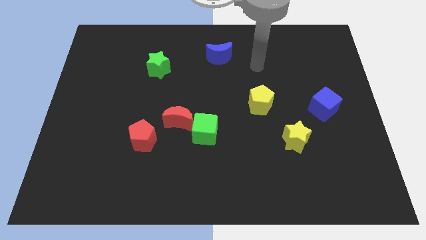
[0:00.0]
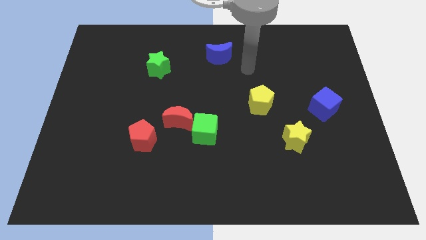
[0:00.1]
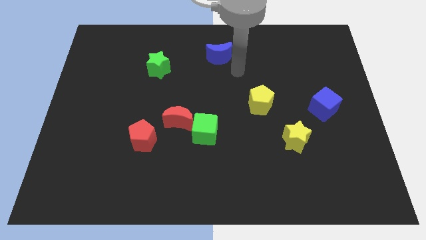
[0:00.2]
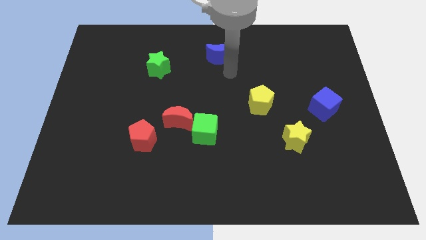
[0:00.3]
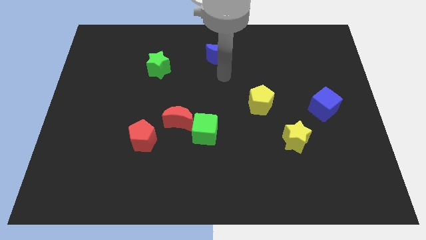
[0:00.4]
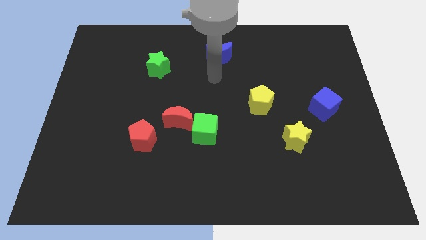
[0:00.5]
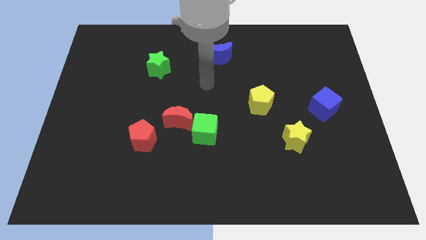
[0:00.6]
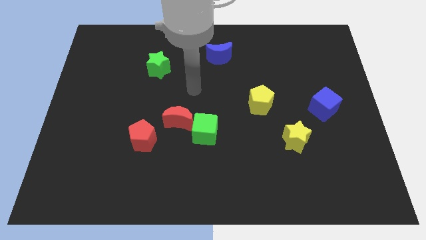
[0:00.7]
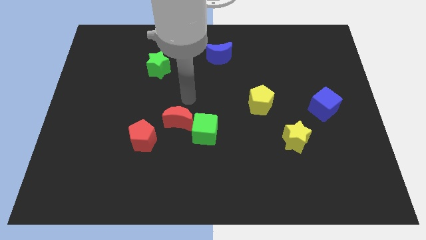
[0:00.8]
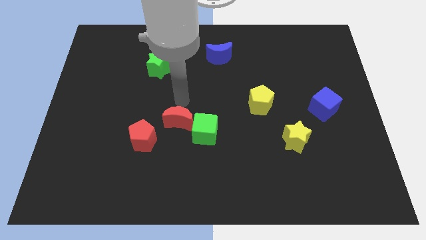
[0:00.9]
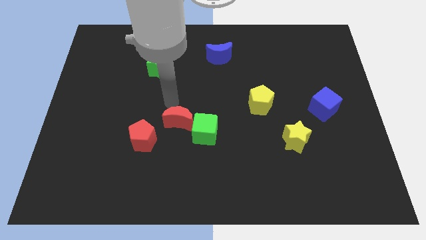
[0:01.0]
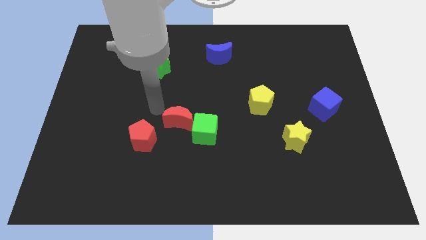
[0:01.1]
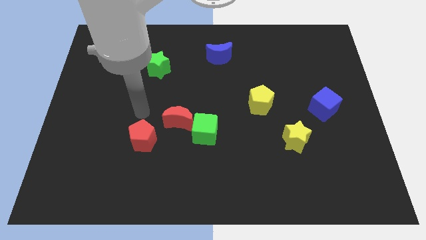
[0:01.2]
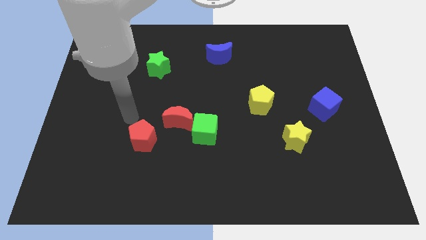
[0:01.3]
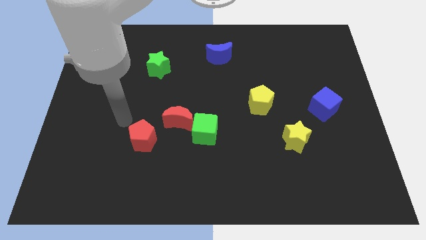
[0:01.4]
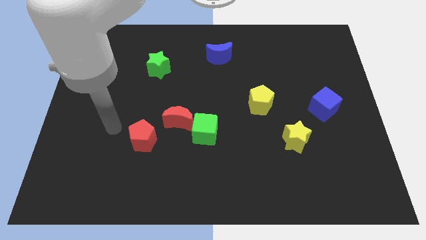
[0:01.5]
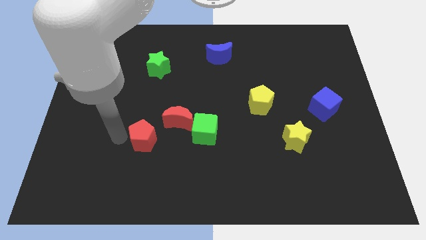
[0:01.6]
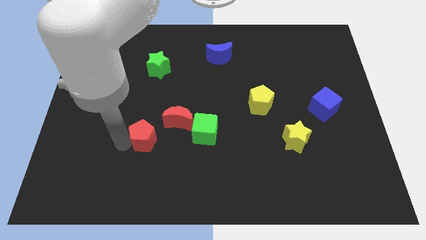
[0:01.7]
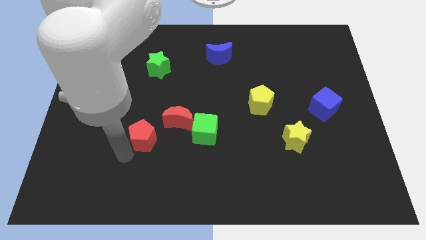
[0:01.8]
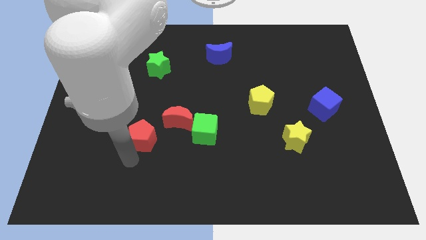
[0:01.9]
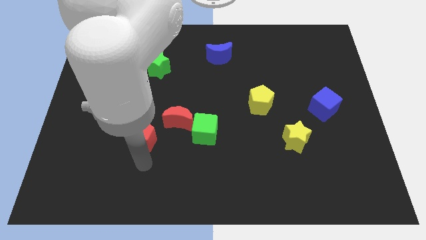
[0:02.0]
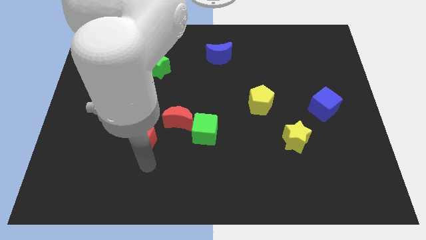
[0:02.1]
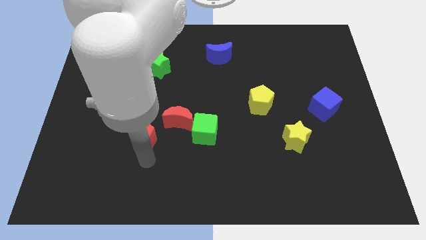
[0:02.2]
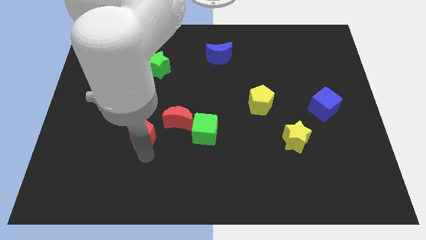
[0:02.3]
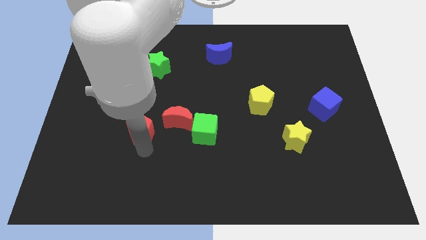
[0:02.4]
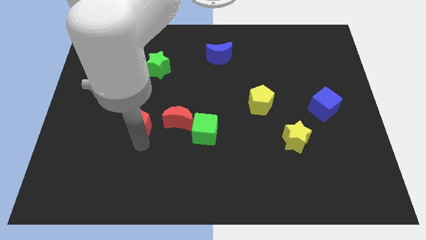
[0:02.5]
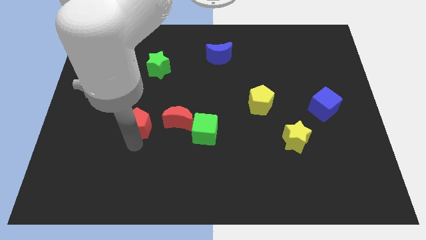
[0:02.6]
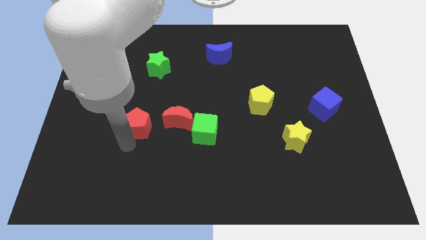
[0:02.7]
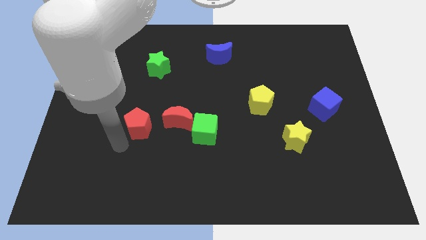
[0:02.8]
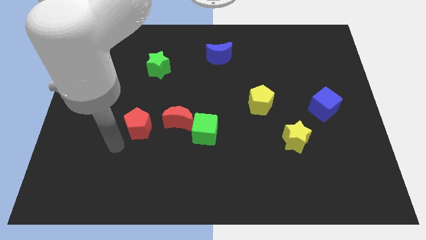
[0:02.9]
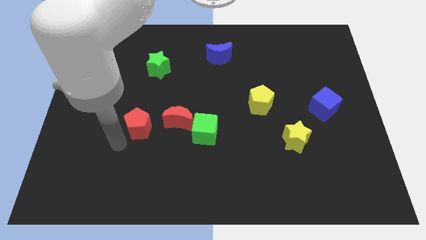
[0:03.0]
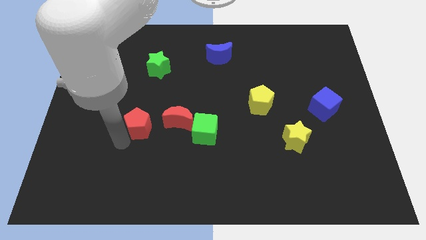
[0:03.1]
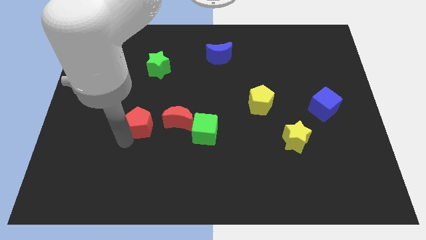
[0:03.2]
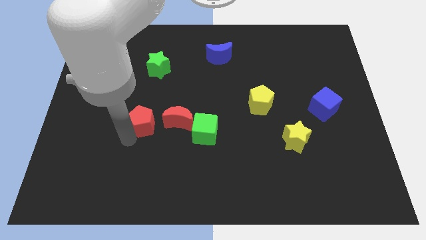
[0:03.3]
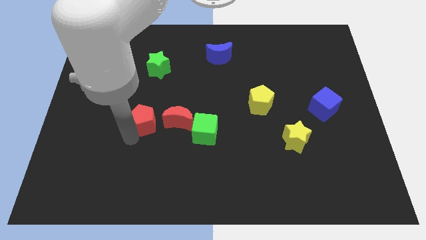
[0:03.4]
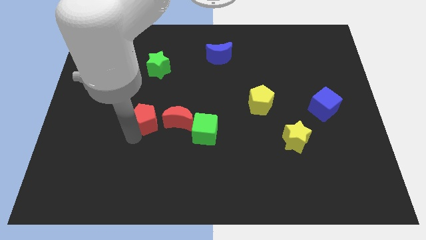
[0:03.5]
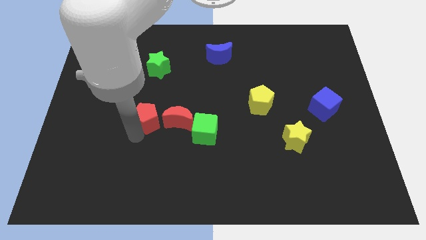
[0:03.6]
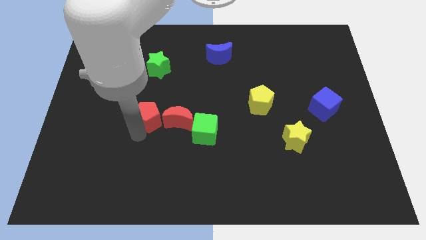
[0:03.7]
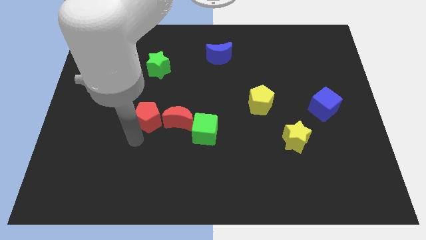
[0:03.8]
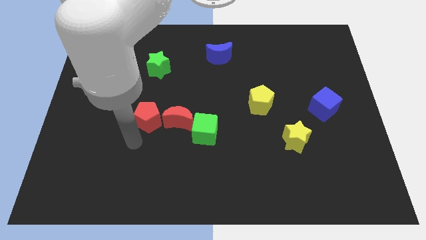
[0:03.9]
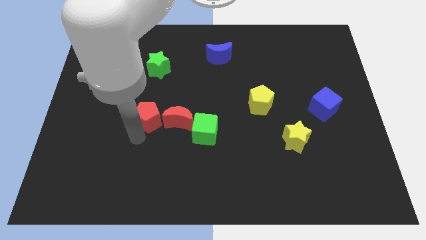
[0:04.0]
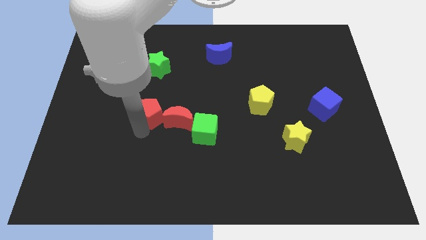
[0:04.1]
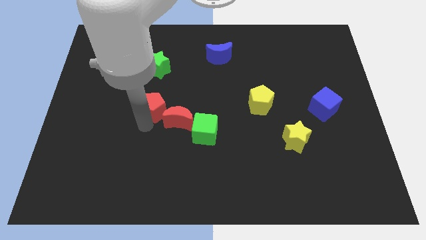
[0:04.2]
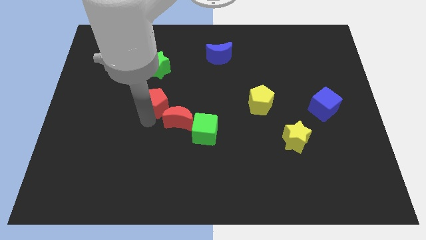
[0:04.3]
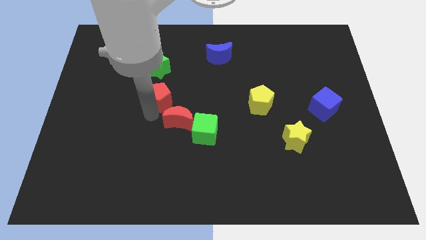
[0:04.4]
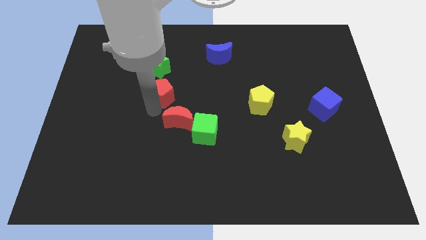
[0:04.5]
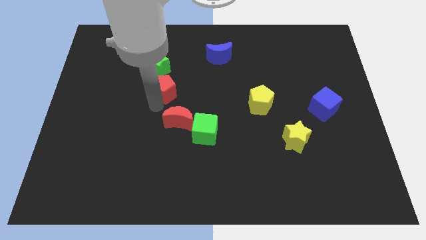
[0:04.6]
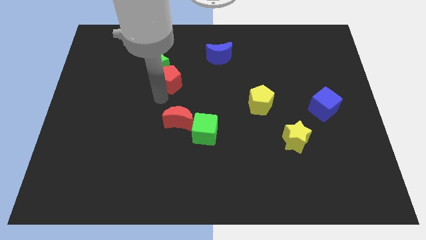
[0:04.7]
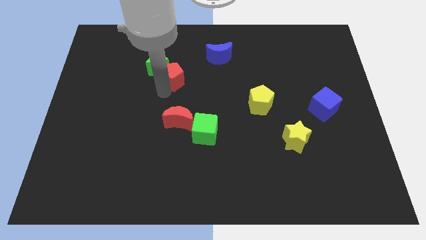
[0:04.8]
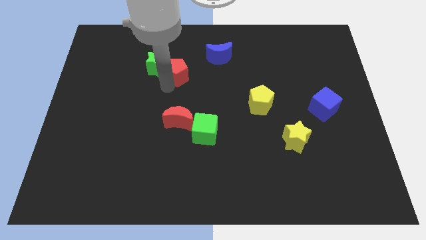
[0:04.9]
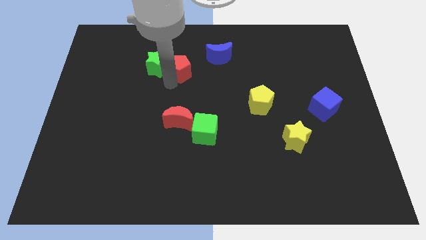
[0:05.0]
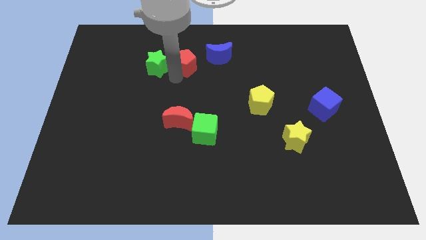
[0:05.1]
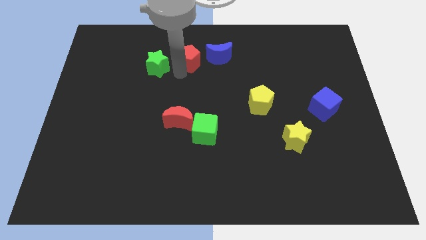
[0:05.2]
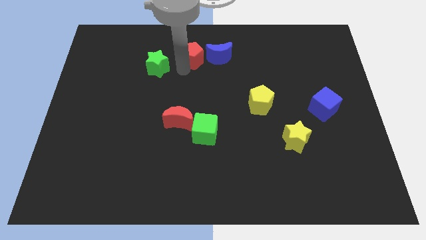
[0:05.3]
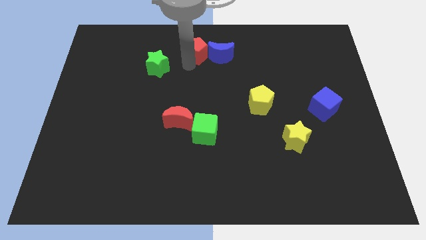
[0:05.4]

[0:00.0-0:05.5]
slide the red pentagon to the top

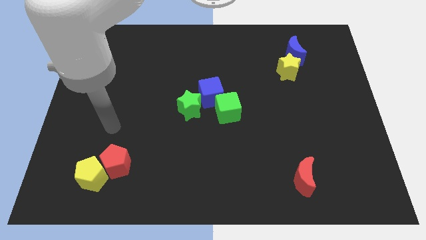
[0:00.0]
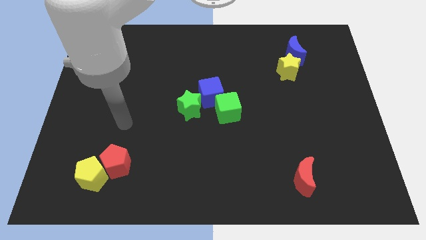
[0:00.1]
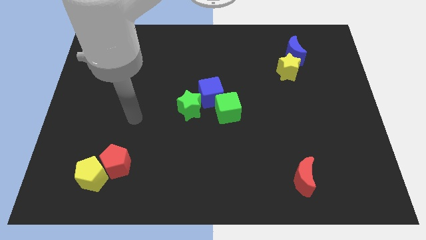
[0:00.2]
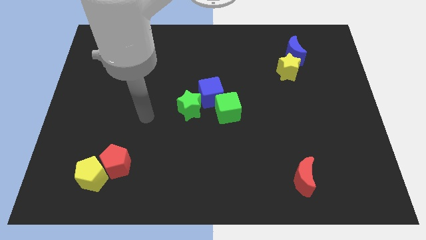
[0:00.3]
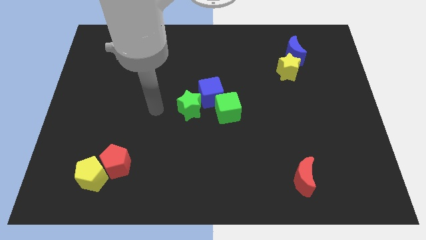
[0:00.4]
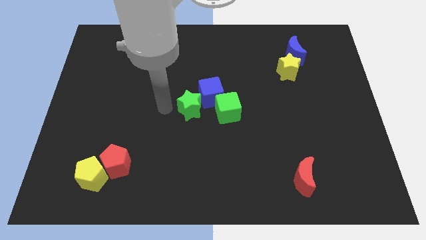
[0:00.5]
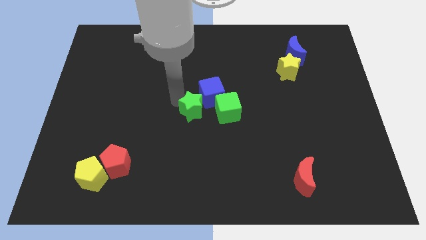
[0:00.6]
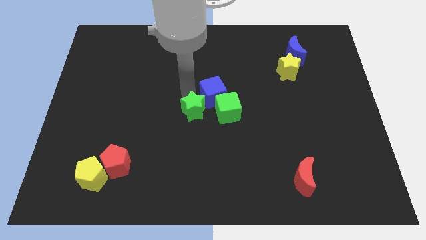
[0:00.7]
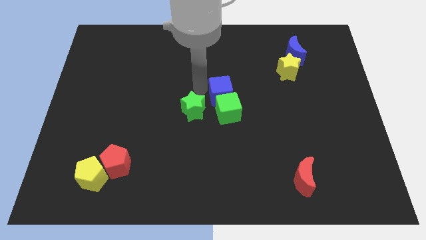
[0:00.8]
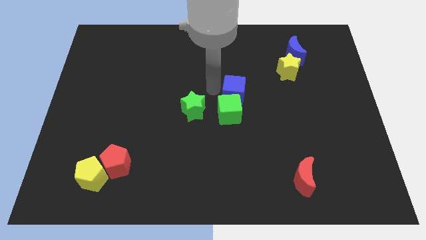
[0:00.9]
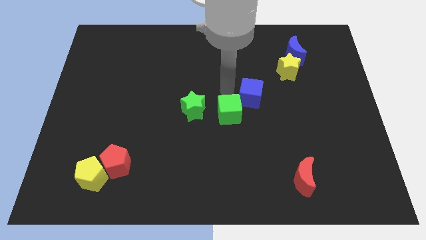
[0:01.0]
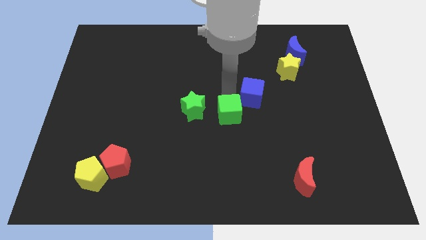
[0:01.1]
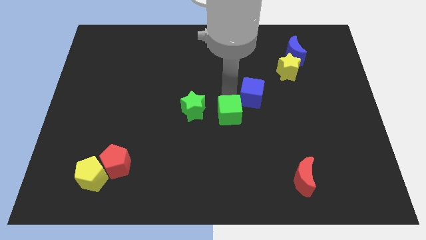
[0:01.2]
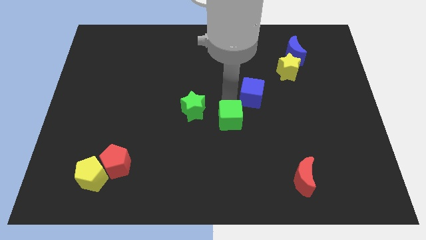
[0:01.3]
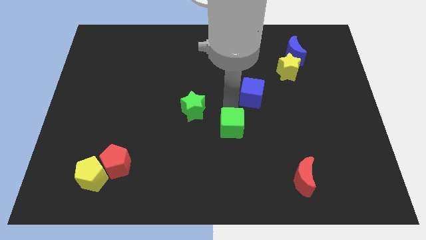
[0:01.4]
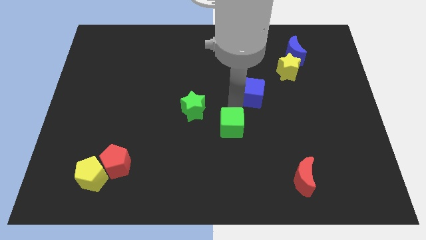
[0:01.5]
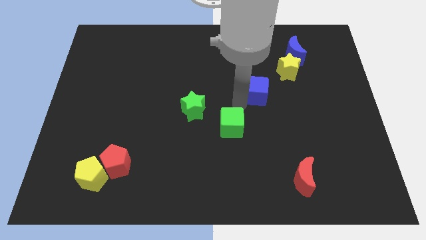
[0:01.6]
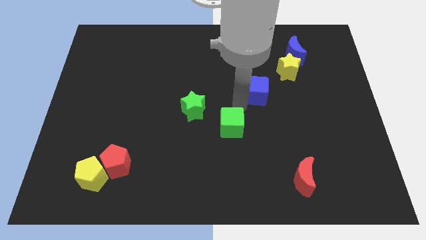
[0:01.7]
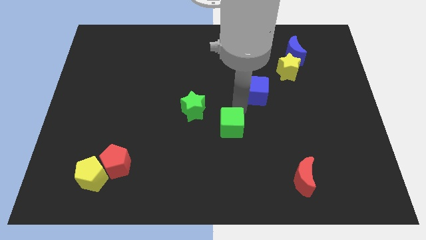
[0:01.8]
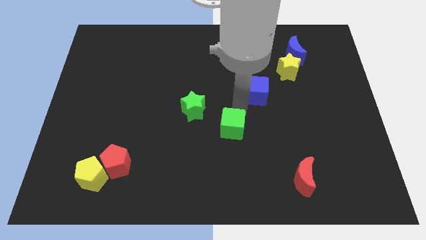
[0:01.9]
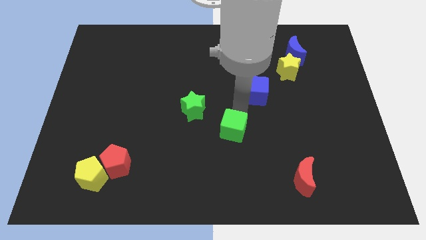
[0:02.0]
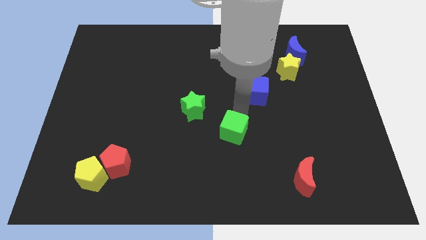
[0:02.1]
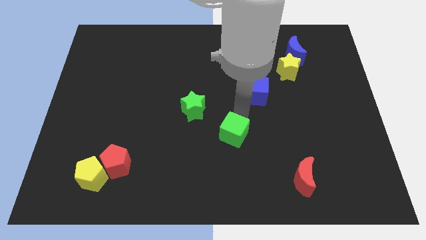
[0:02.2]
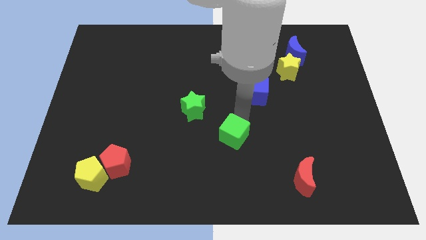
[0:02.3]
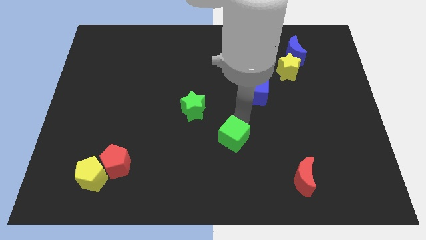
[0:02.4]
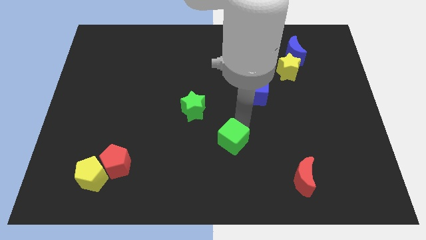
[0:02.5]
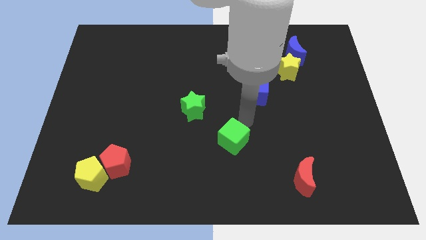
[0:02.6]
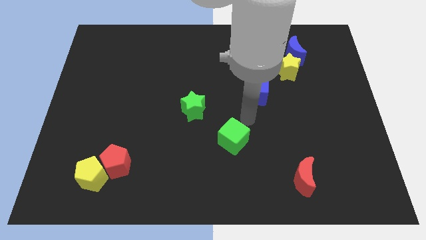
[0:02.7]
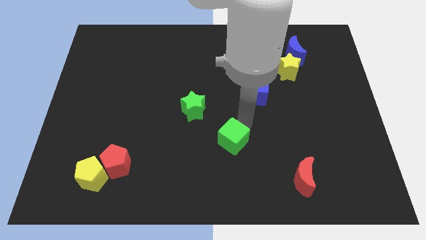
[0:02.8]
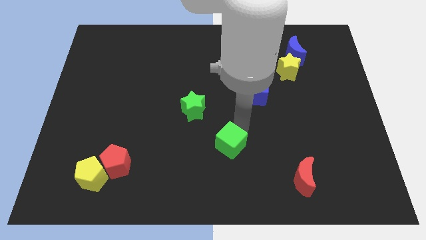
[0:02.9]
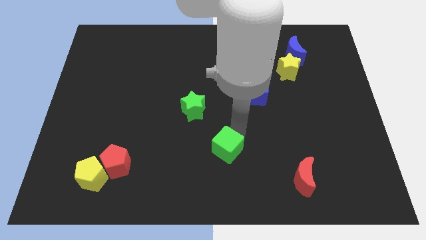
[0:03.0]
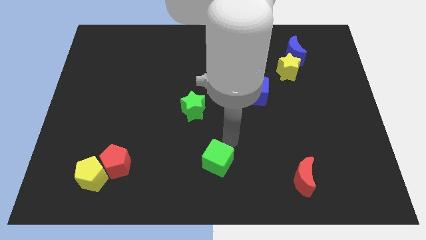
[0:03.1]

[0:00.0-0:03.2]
move the green cube to the bottom
